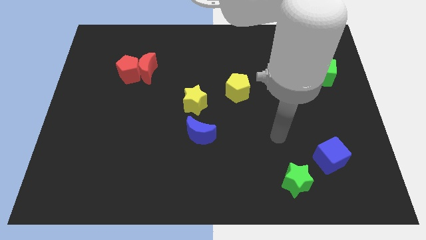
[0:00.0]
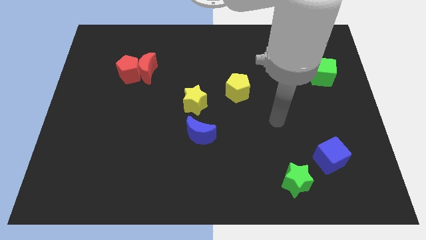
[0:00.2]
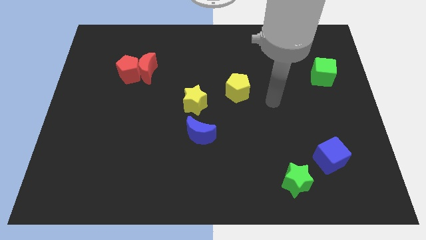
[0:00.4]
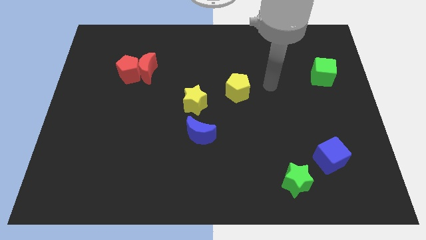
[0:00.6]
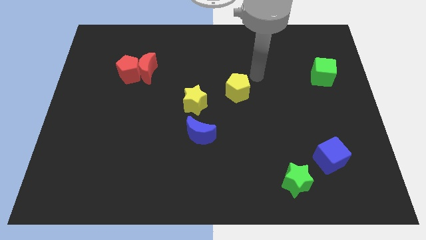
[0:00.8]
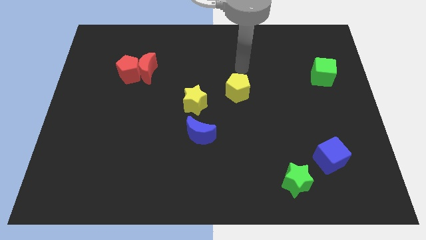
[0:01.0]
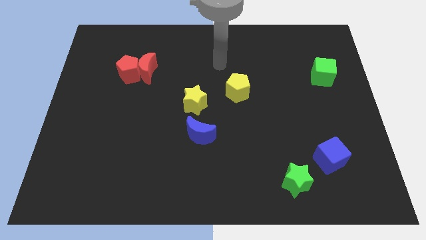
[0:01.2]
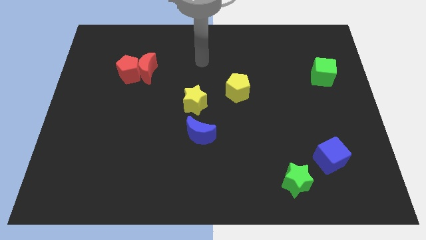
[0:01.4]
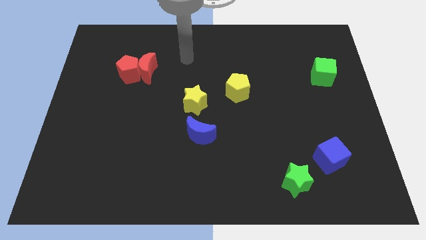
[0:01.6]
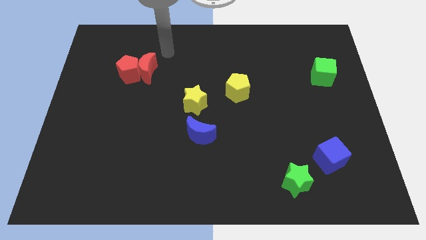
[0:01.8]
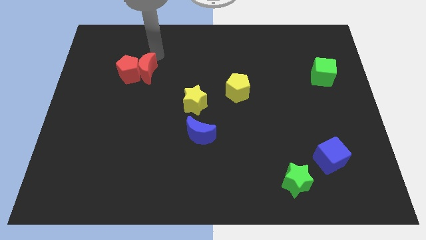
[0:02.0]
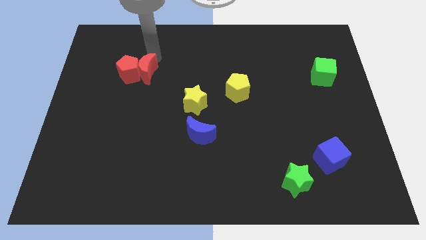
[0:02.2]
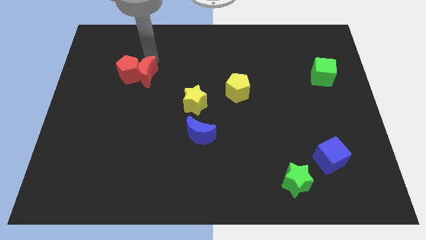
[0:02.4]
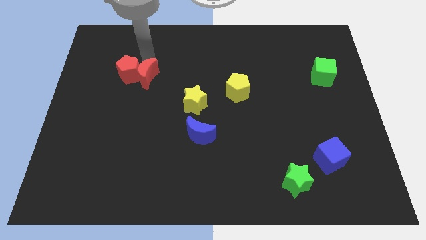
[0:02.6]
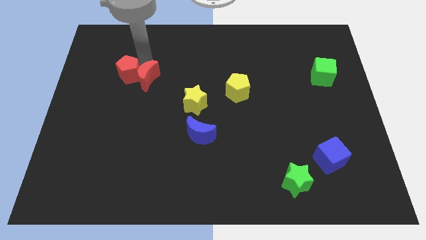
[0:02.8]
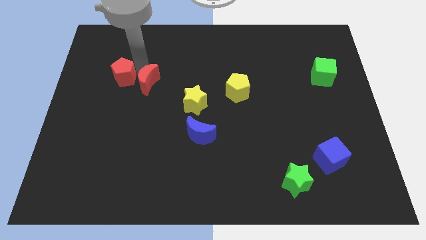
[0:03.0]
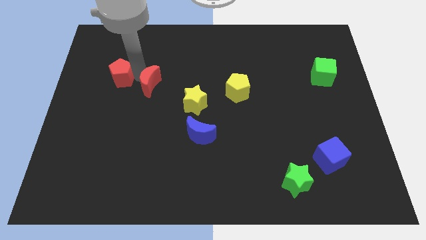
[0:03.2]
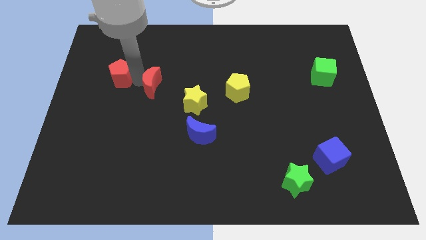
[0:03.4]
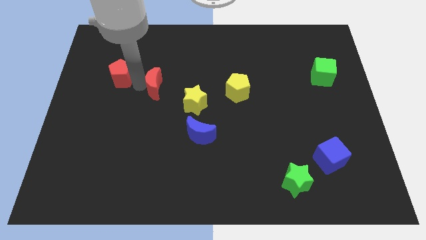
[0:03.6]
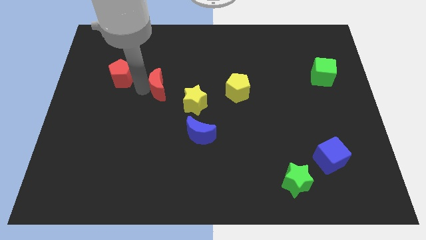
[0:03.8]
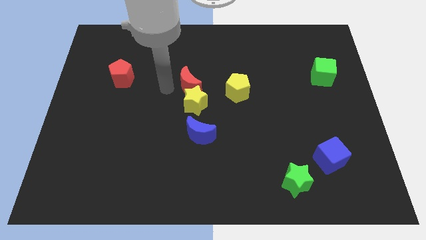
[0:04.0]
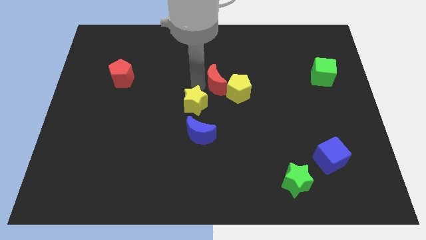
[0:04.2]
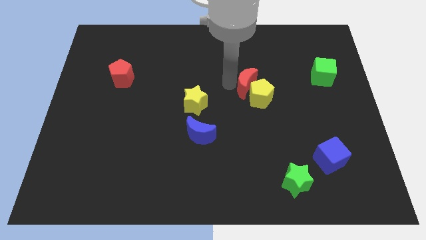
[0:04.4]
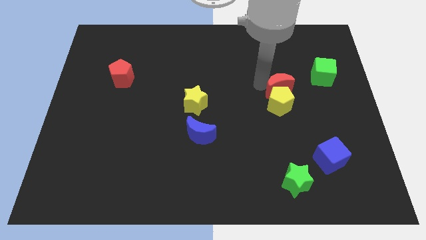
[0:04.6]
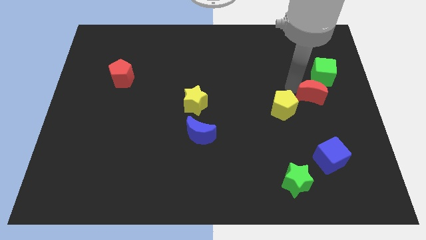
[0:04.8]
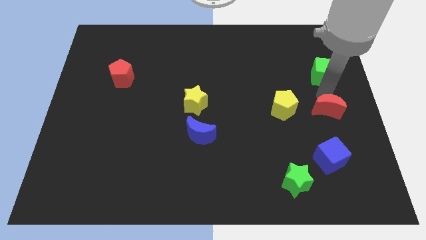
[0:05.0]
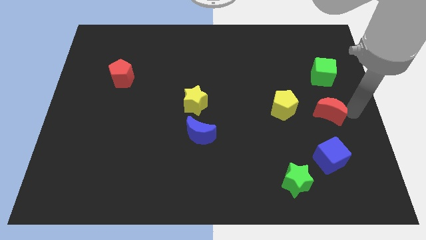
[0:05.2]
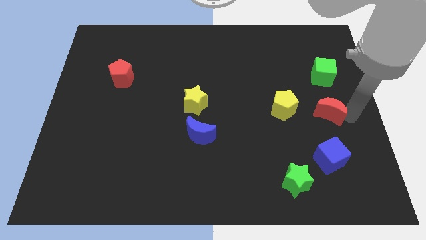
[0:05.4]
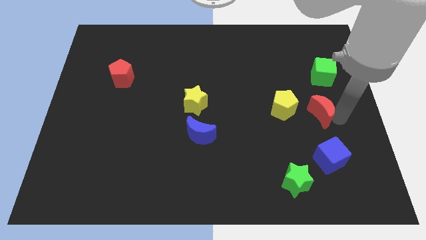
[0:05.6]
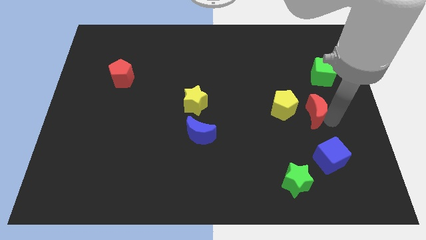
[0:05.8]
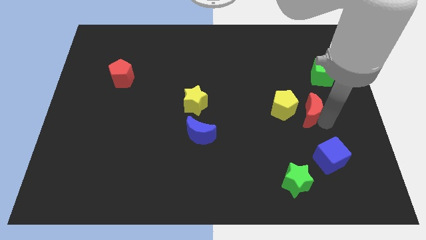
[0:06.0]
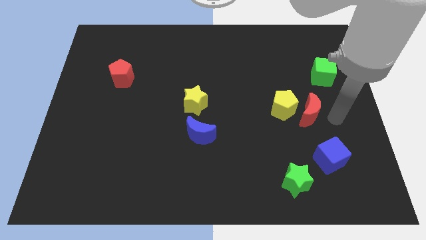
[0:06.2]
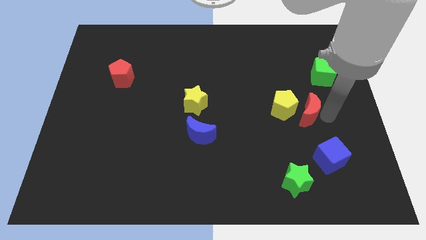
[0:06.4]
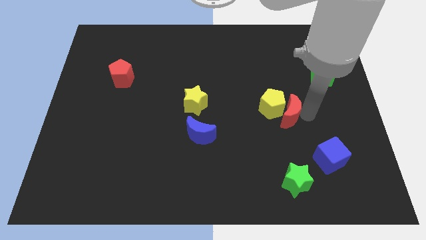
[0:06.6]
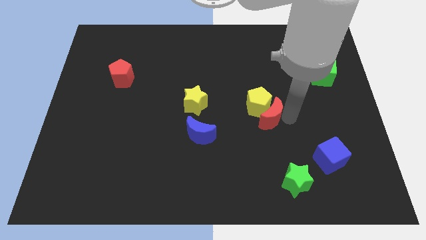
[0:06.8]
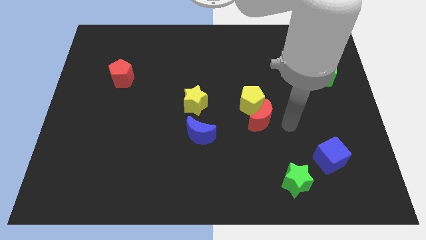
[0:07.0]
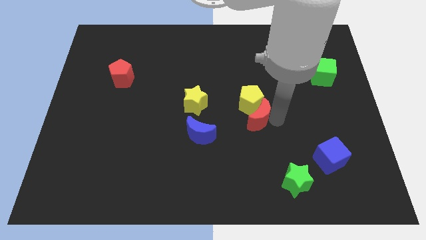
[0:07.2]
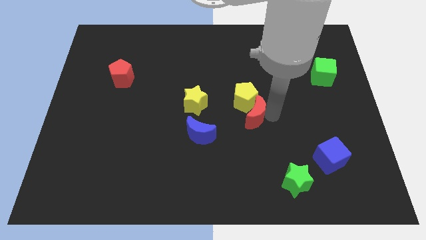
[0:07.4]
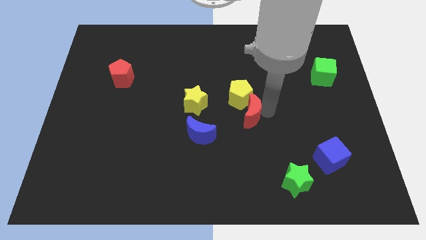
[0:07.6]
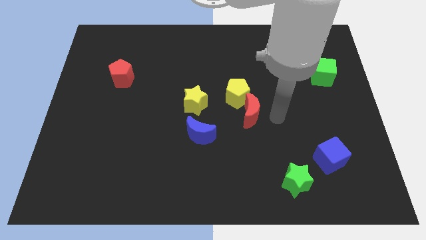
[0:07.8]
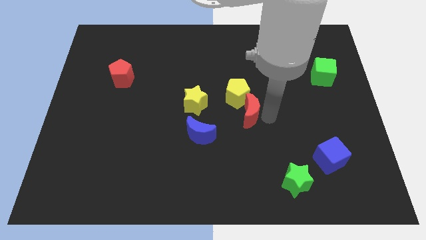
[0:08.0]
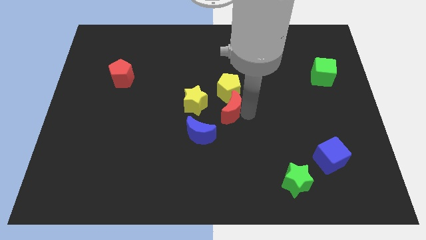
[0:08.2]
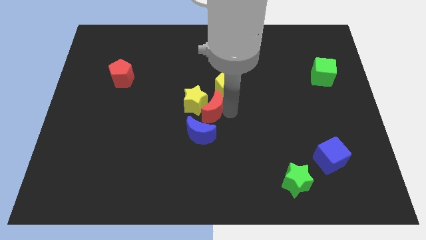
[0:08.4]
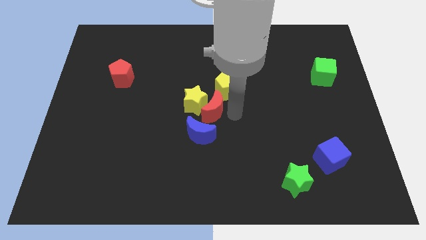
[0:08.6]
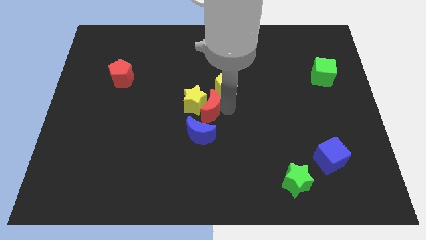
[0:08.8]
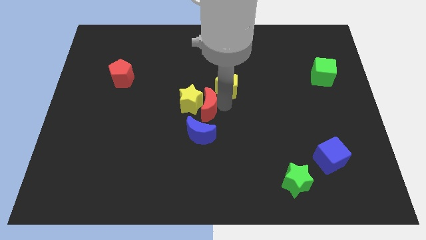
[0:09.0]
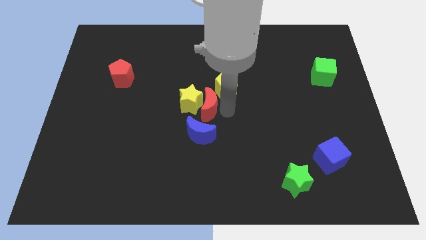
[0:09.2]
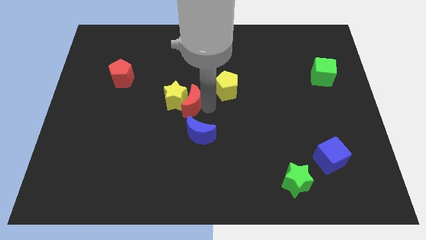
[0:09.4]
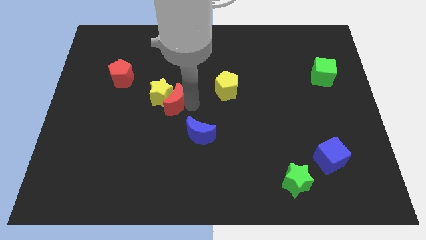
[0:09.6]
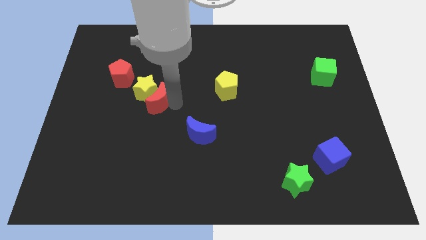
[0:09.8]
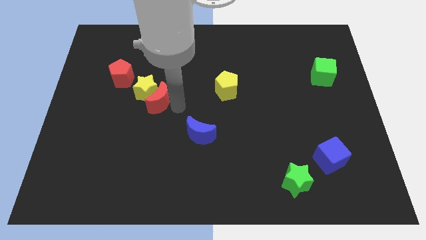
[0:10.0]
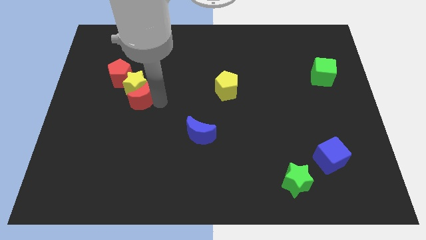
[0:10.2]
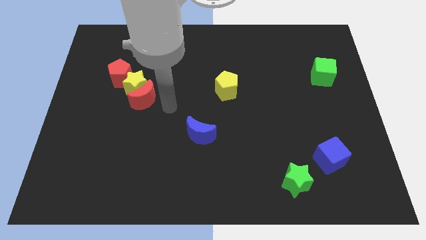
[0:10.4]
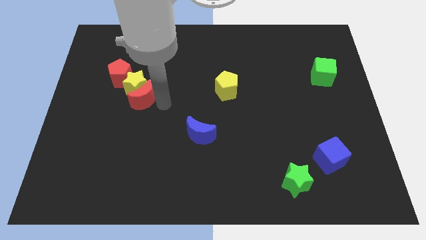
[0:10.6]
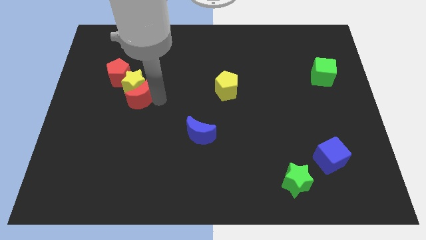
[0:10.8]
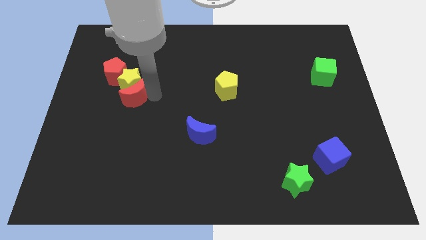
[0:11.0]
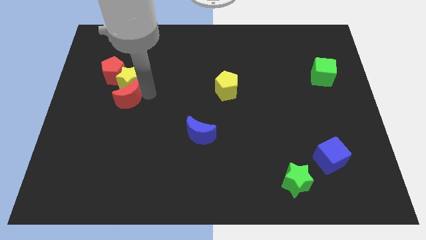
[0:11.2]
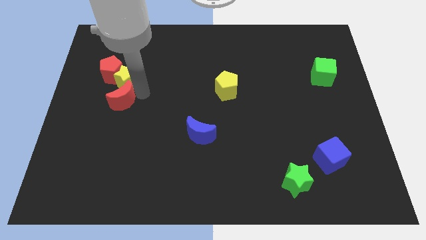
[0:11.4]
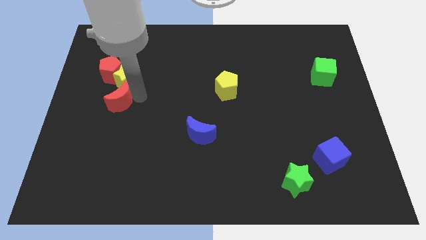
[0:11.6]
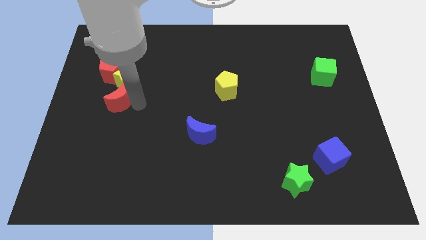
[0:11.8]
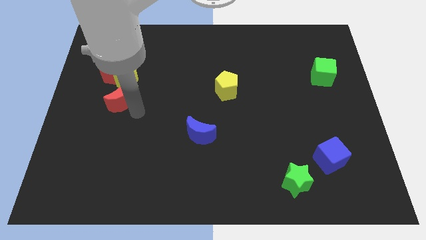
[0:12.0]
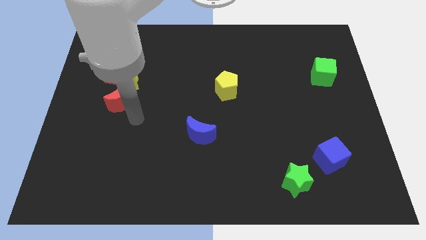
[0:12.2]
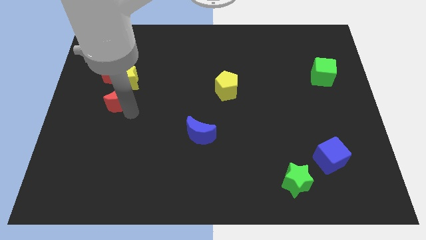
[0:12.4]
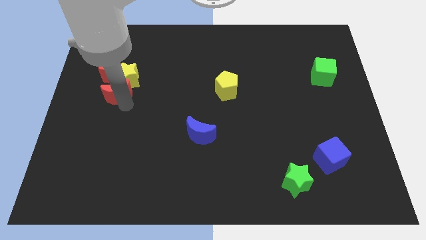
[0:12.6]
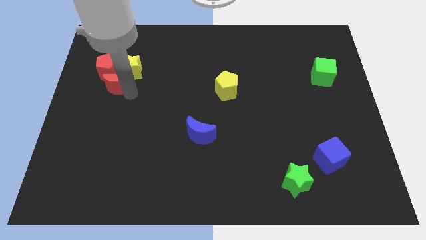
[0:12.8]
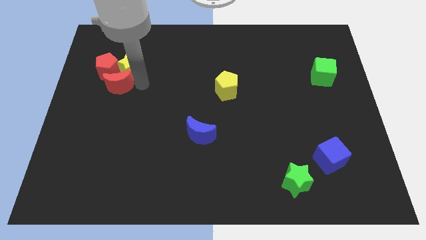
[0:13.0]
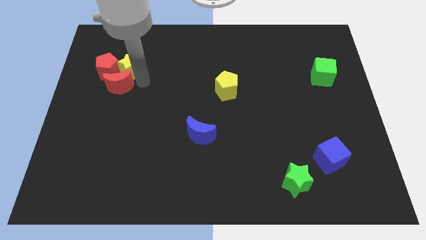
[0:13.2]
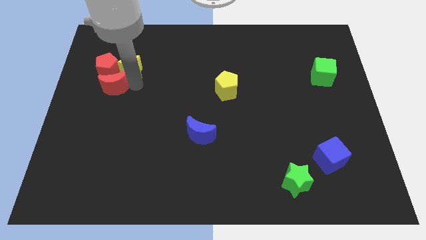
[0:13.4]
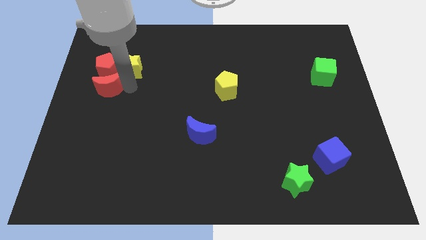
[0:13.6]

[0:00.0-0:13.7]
put the red moon to the center left
